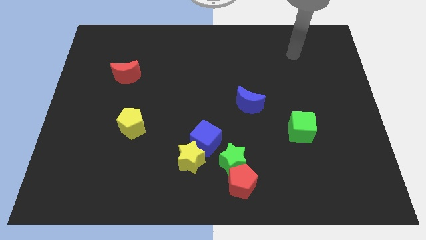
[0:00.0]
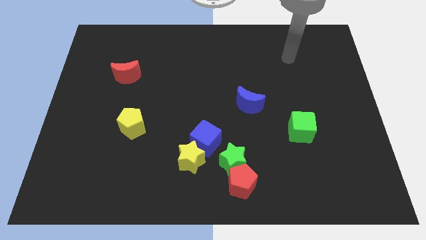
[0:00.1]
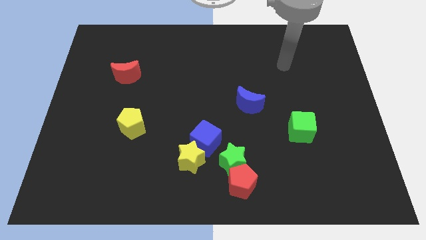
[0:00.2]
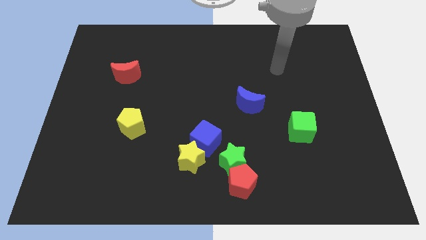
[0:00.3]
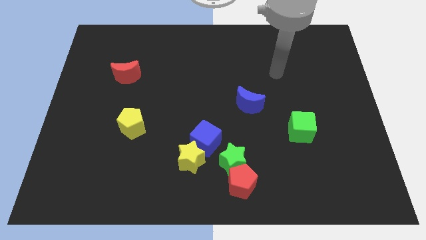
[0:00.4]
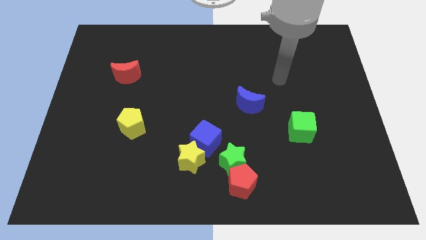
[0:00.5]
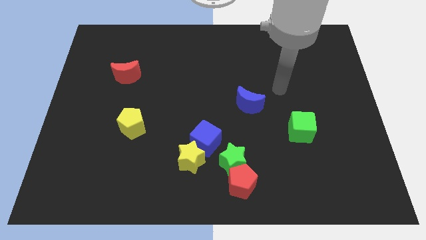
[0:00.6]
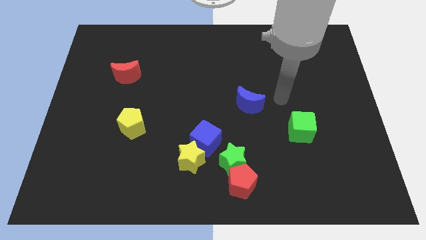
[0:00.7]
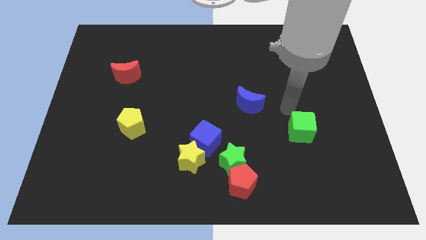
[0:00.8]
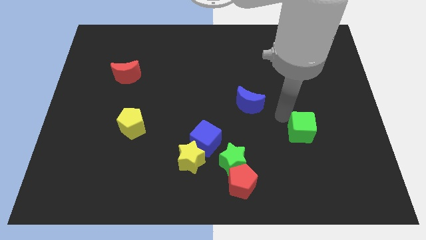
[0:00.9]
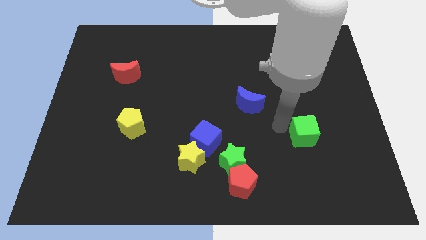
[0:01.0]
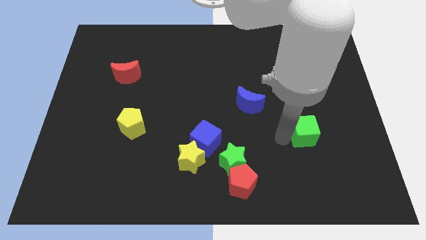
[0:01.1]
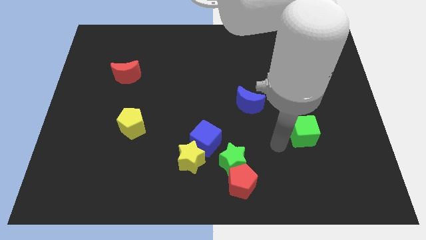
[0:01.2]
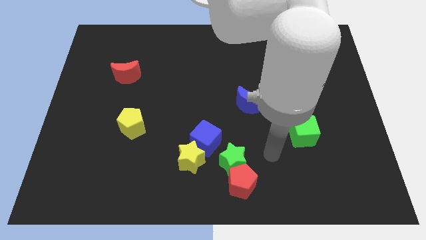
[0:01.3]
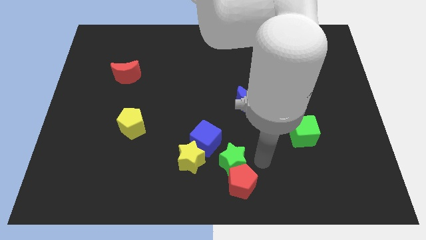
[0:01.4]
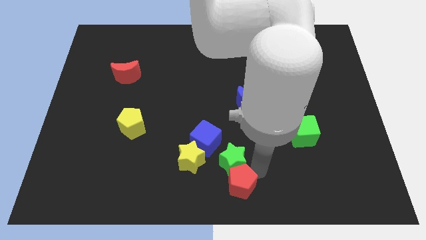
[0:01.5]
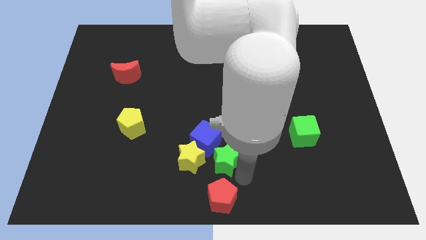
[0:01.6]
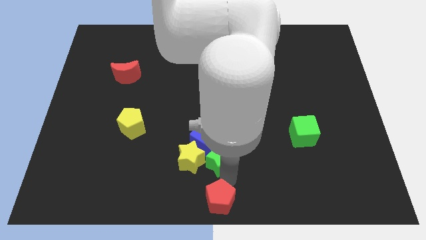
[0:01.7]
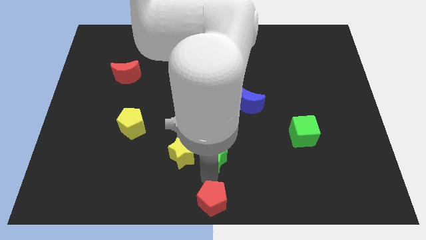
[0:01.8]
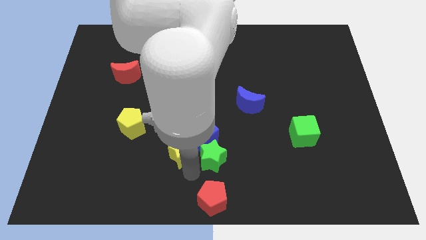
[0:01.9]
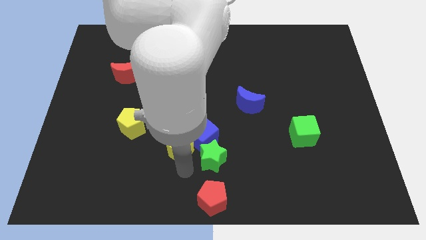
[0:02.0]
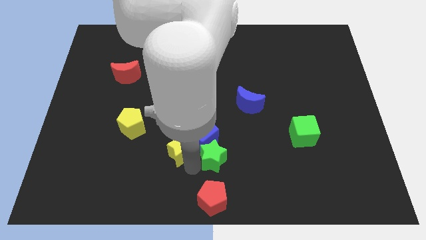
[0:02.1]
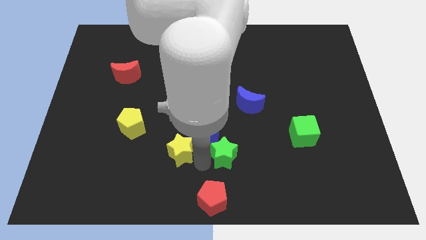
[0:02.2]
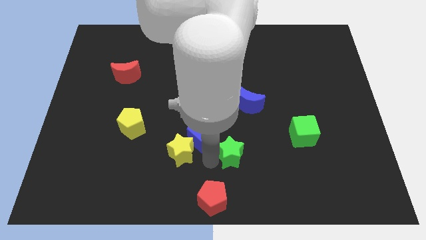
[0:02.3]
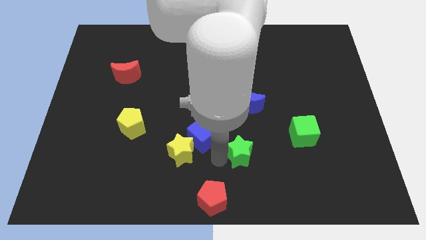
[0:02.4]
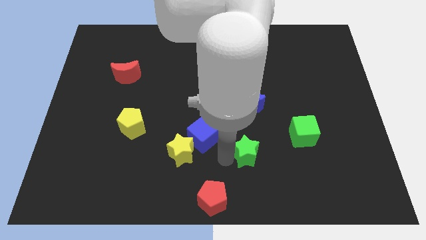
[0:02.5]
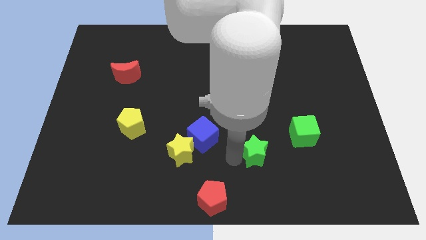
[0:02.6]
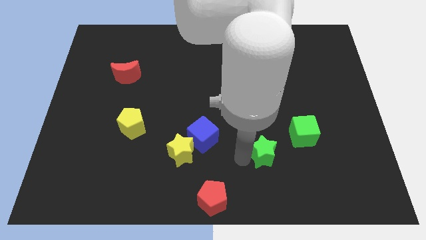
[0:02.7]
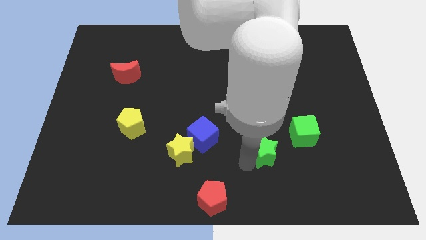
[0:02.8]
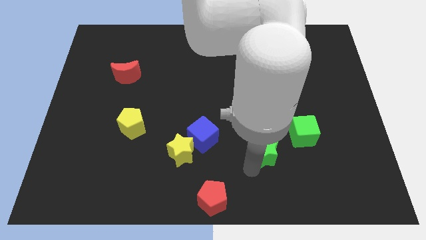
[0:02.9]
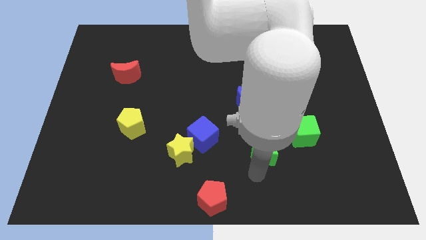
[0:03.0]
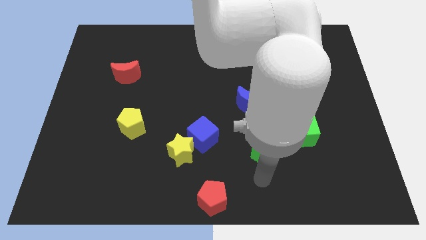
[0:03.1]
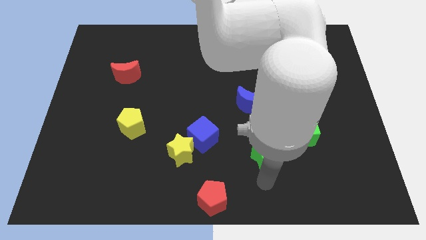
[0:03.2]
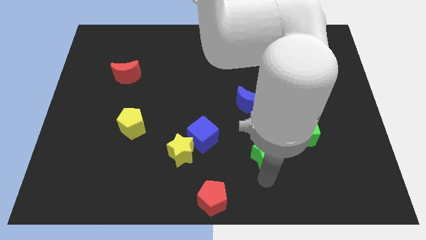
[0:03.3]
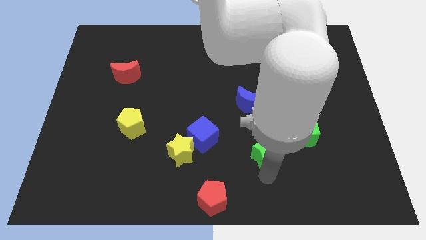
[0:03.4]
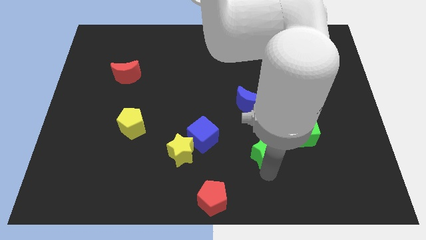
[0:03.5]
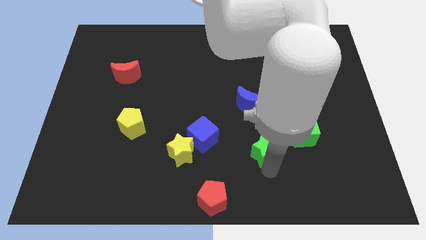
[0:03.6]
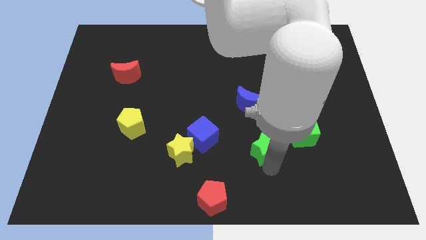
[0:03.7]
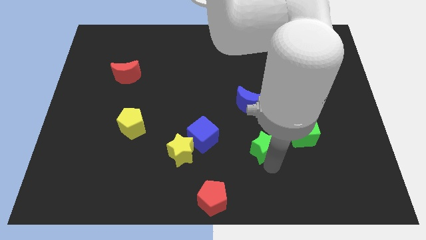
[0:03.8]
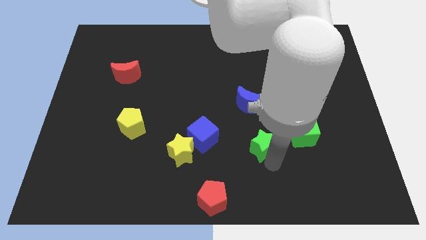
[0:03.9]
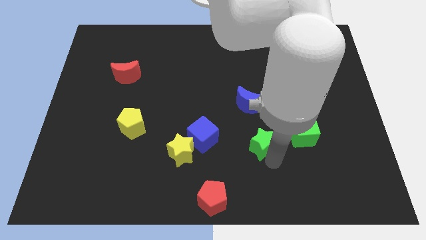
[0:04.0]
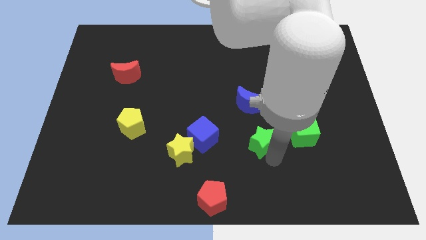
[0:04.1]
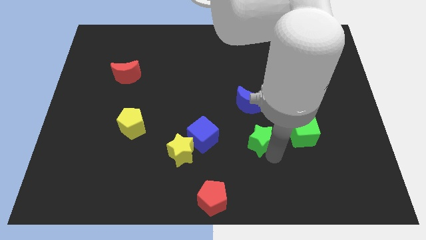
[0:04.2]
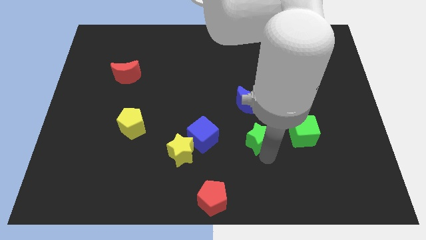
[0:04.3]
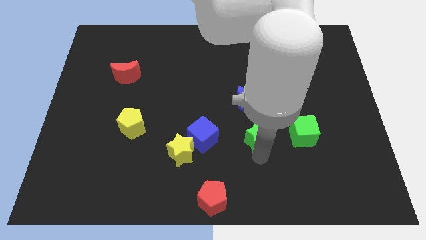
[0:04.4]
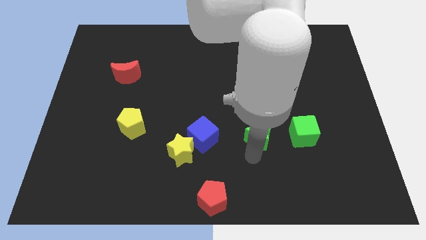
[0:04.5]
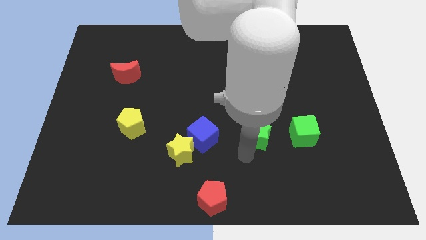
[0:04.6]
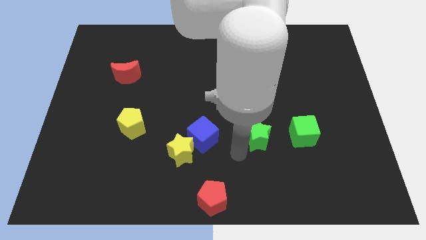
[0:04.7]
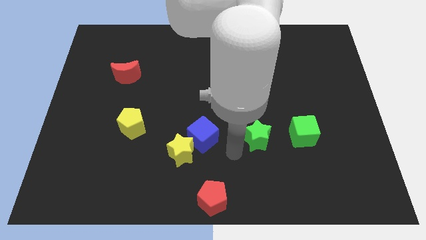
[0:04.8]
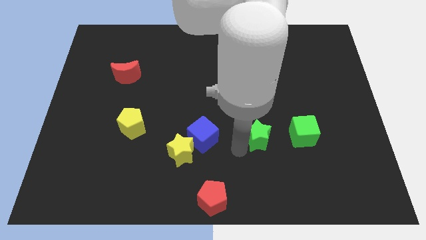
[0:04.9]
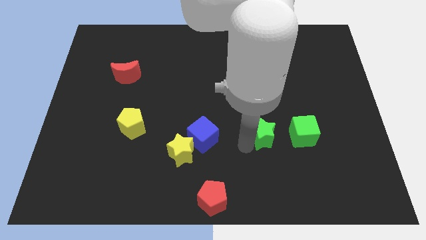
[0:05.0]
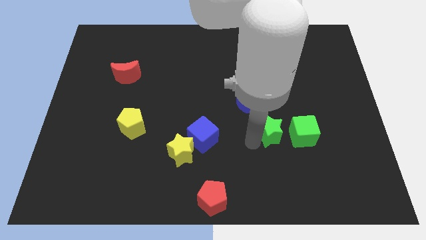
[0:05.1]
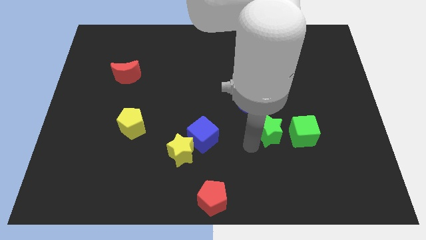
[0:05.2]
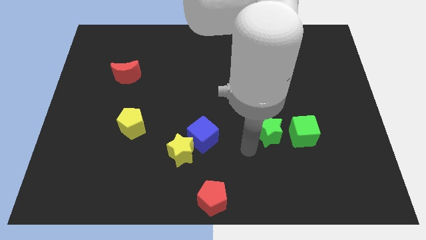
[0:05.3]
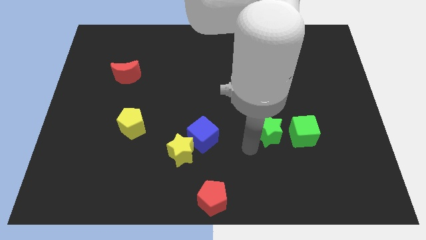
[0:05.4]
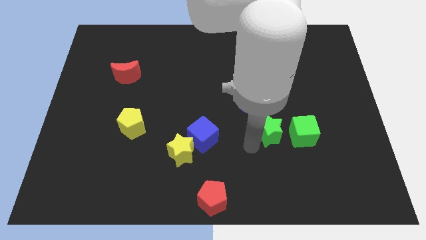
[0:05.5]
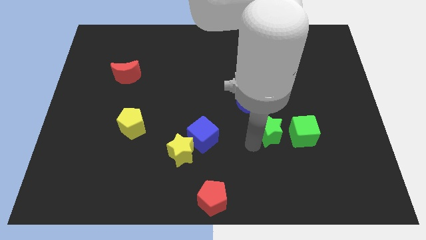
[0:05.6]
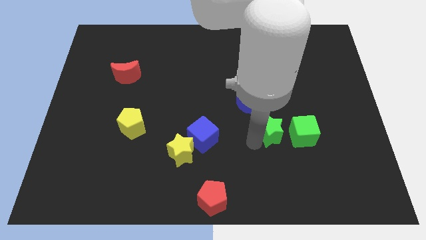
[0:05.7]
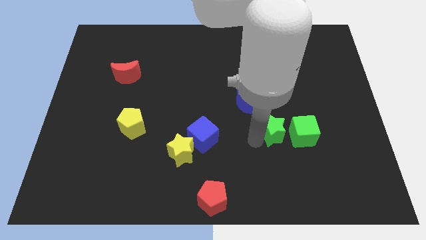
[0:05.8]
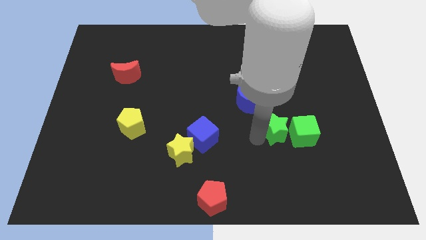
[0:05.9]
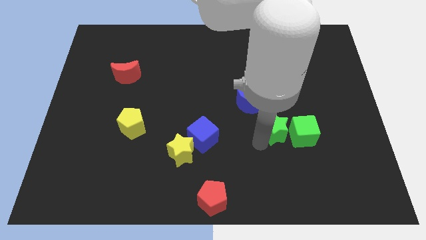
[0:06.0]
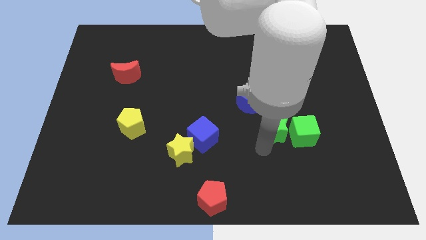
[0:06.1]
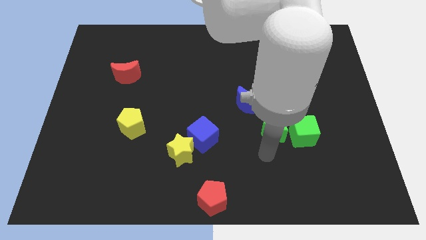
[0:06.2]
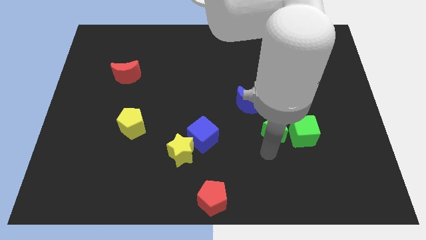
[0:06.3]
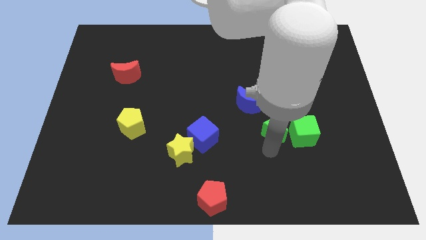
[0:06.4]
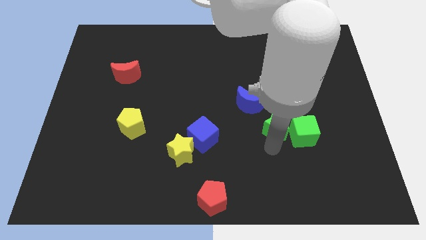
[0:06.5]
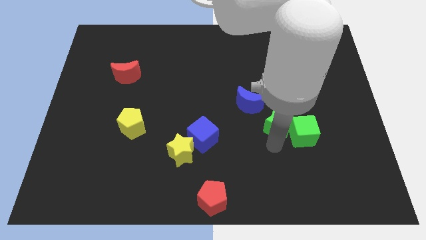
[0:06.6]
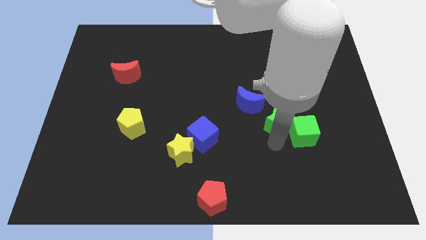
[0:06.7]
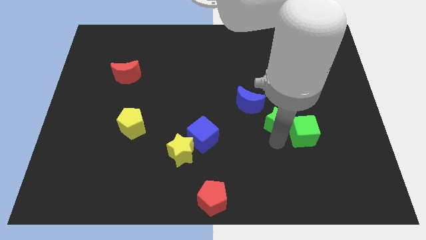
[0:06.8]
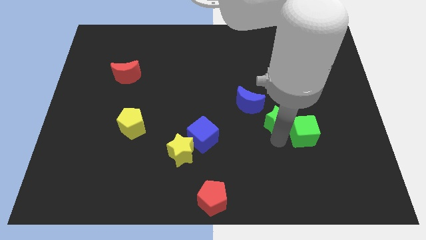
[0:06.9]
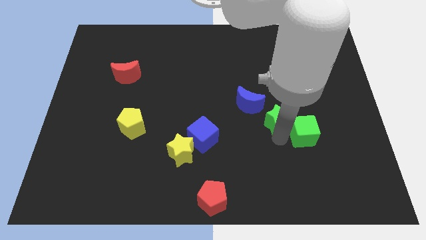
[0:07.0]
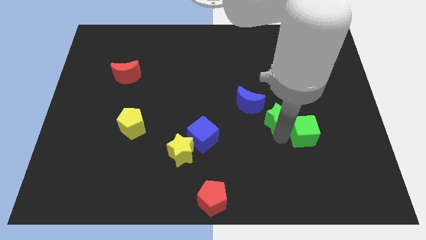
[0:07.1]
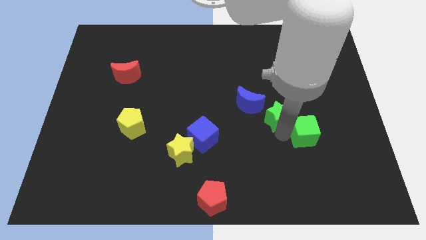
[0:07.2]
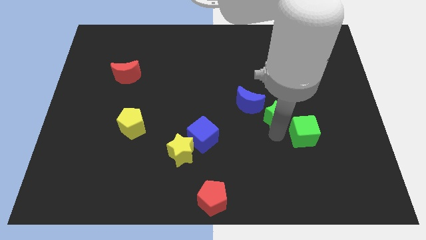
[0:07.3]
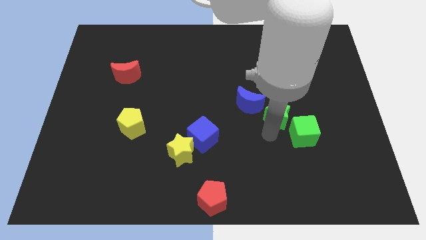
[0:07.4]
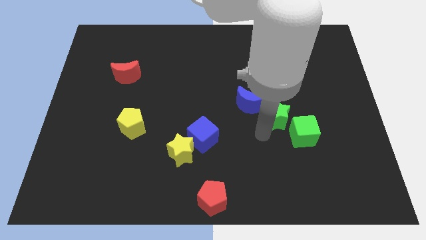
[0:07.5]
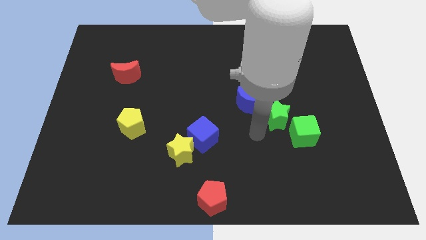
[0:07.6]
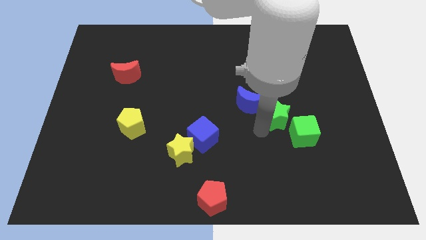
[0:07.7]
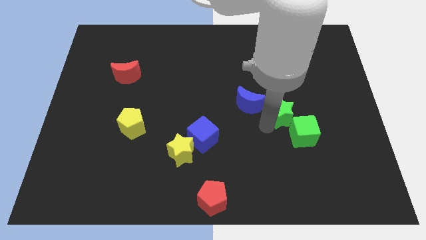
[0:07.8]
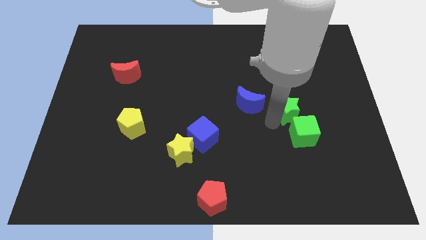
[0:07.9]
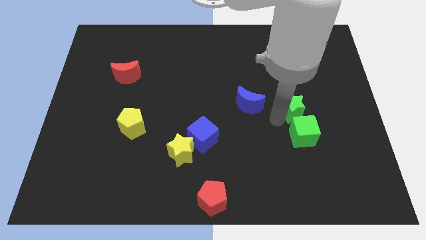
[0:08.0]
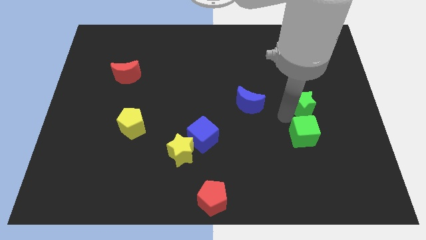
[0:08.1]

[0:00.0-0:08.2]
slide the green star diagonally upwards and right
